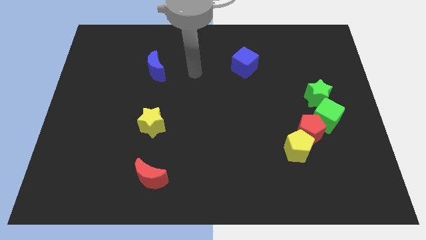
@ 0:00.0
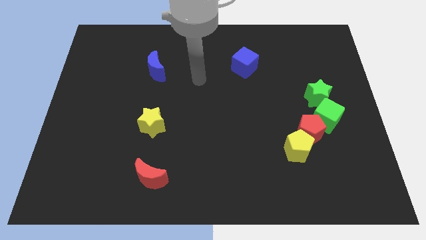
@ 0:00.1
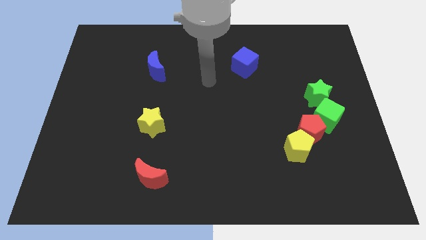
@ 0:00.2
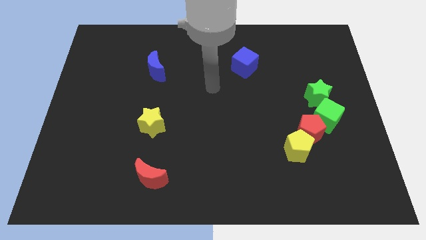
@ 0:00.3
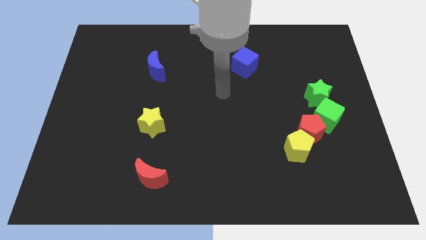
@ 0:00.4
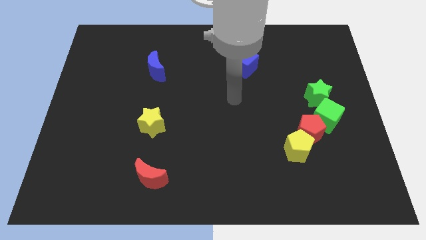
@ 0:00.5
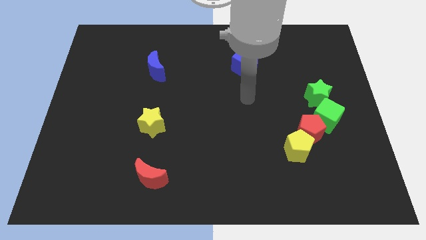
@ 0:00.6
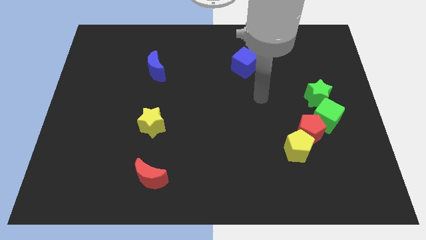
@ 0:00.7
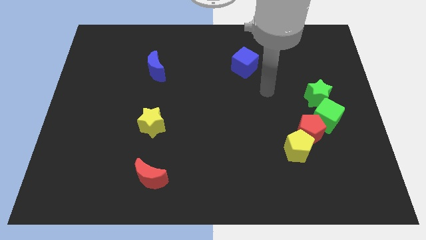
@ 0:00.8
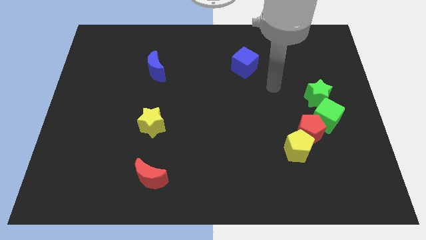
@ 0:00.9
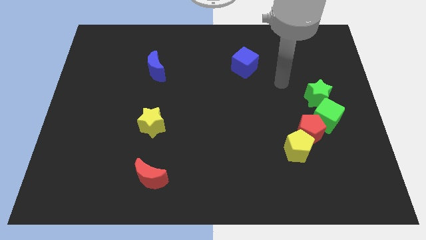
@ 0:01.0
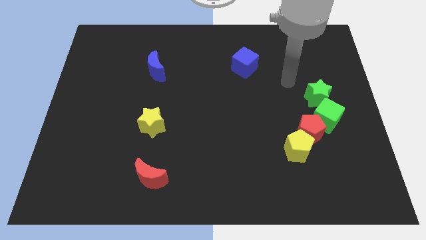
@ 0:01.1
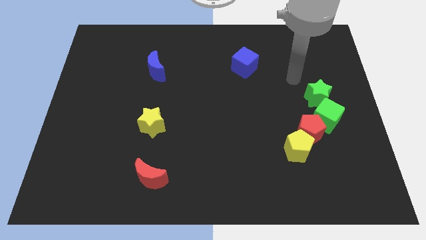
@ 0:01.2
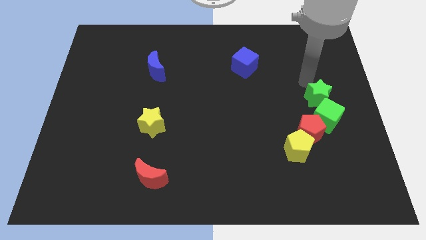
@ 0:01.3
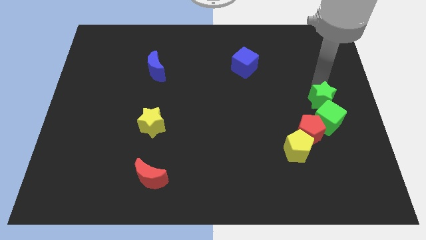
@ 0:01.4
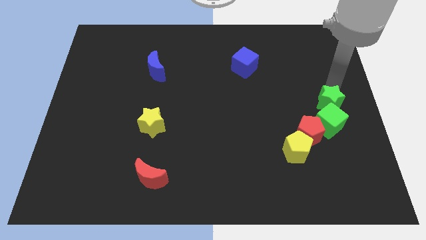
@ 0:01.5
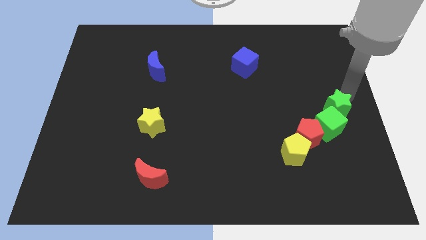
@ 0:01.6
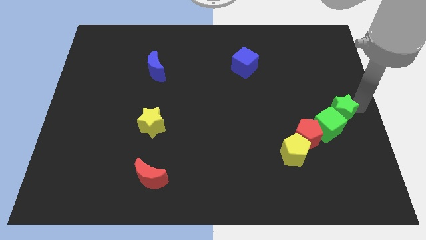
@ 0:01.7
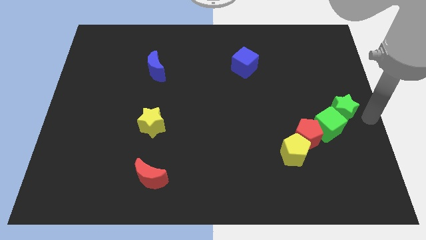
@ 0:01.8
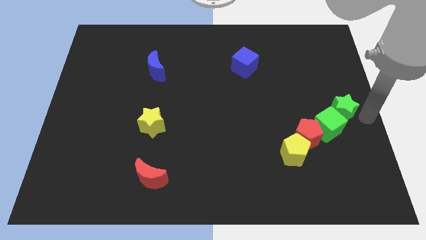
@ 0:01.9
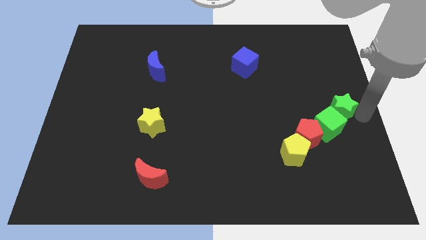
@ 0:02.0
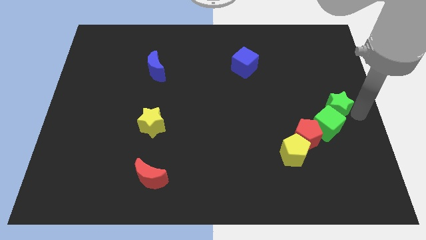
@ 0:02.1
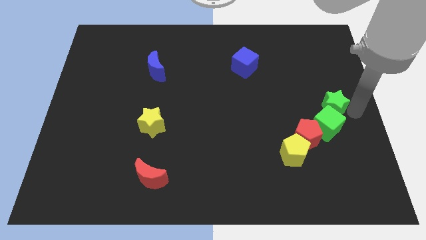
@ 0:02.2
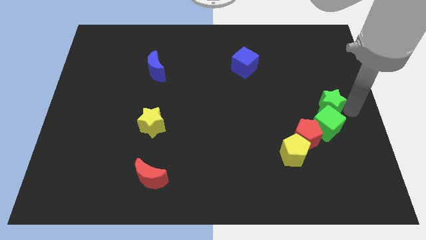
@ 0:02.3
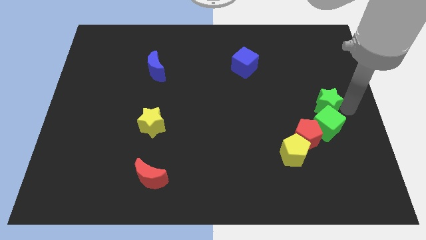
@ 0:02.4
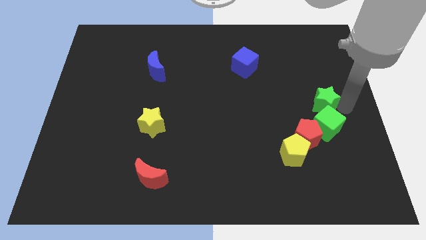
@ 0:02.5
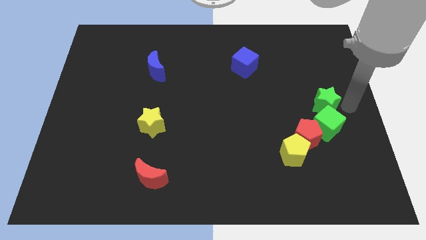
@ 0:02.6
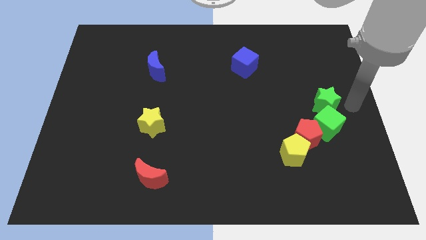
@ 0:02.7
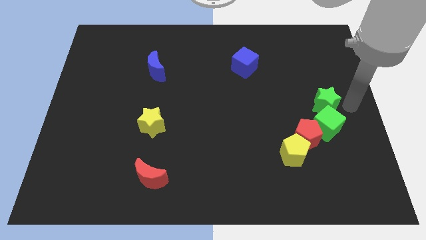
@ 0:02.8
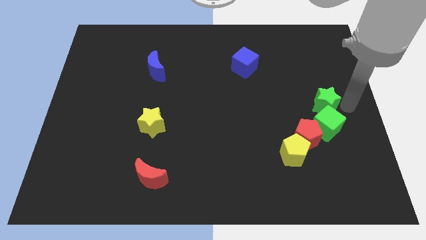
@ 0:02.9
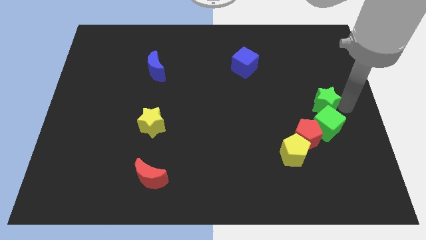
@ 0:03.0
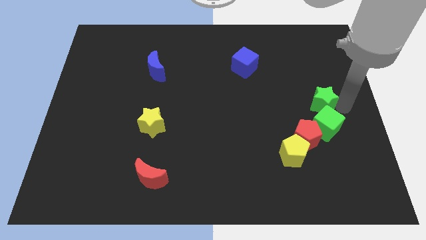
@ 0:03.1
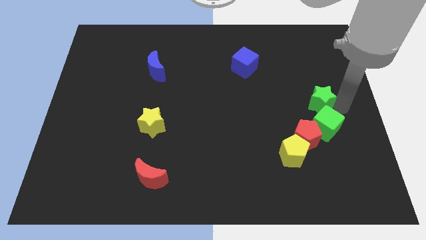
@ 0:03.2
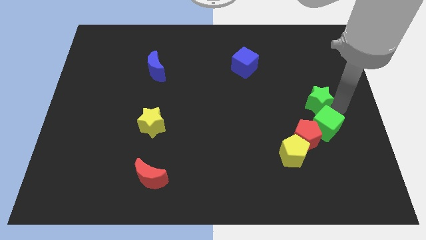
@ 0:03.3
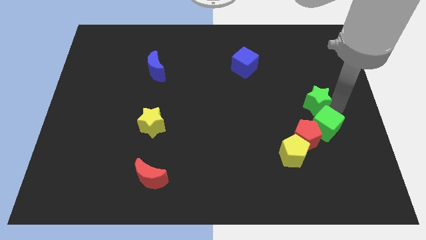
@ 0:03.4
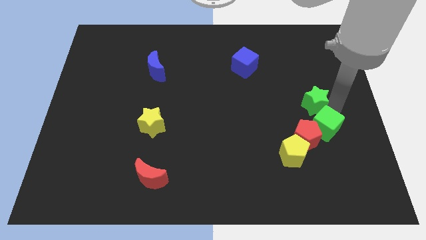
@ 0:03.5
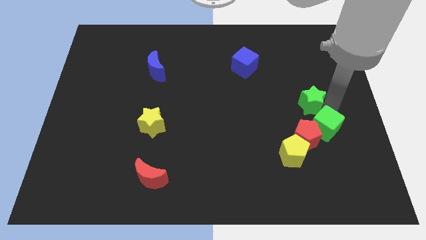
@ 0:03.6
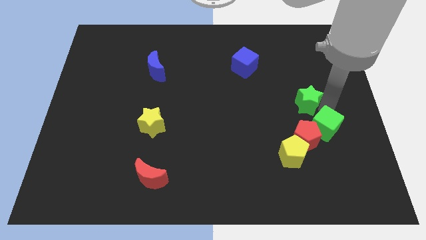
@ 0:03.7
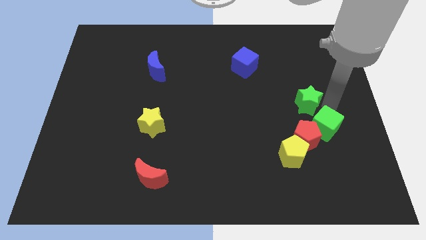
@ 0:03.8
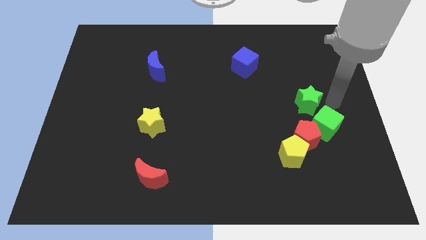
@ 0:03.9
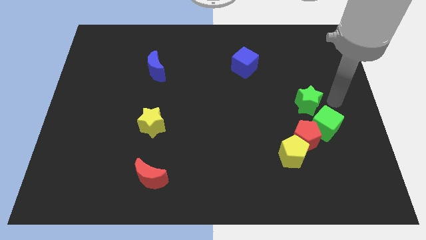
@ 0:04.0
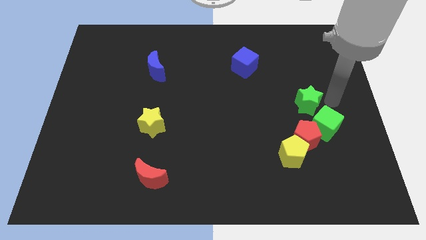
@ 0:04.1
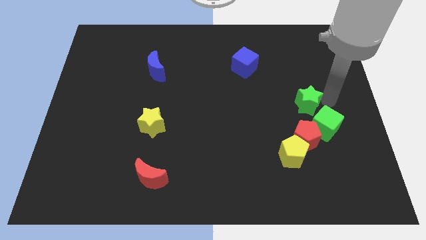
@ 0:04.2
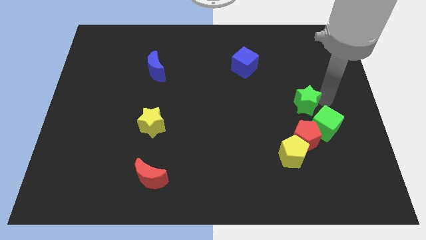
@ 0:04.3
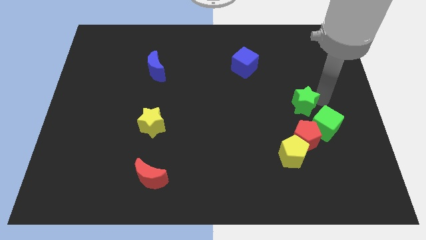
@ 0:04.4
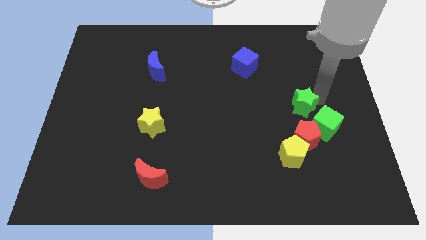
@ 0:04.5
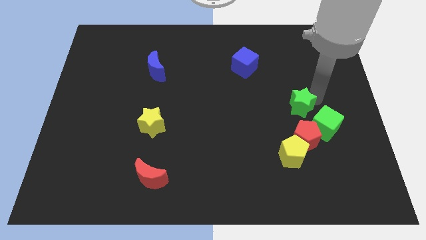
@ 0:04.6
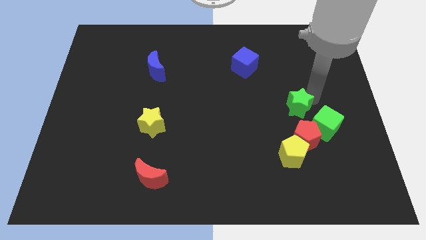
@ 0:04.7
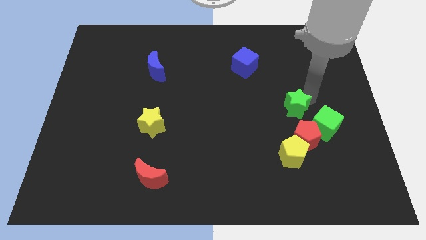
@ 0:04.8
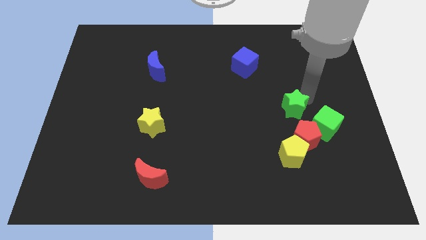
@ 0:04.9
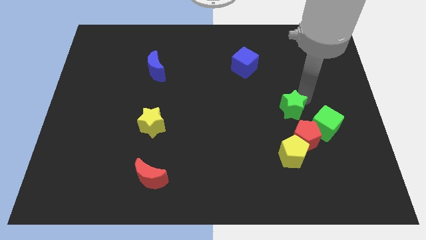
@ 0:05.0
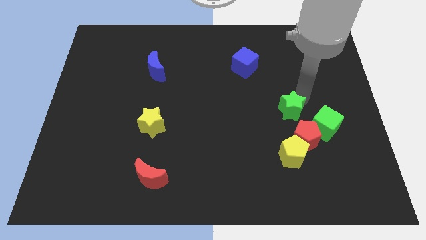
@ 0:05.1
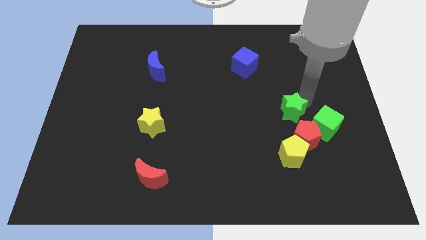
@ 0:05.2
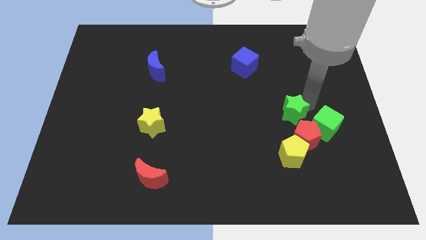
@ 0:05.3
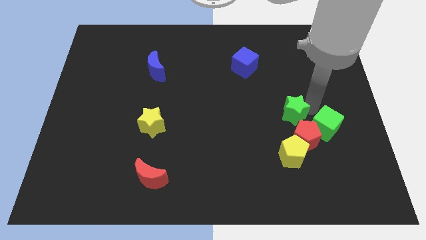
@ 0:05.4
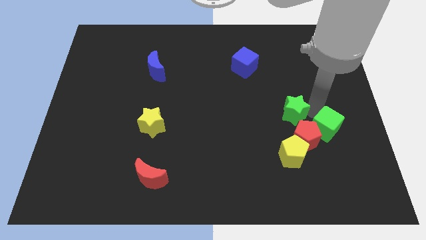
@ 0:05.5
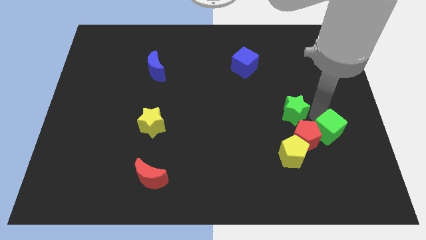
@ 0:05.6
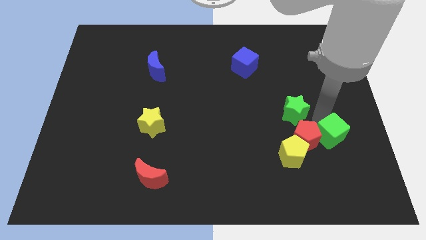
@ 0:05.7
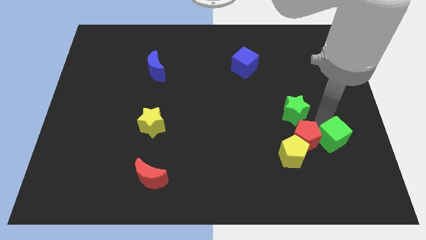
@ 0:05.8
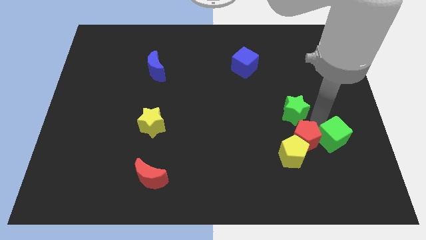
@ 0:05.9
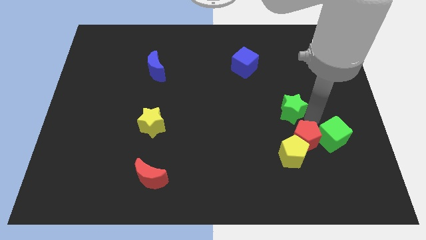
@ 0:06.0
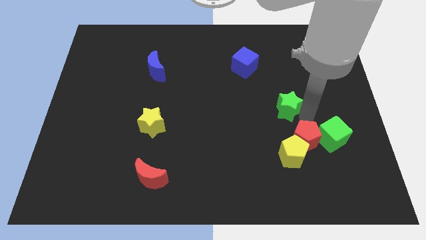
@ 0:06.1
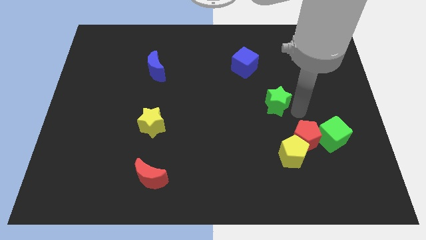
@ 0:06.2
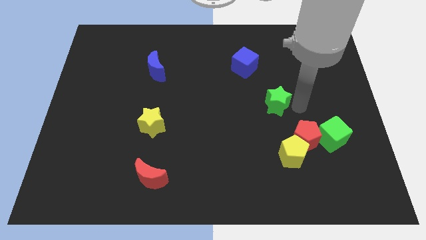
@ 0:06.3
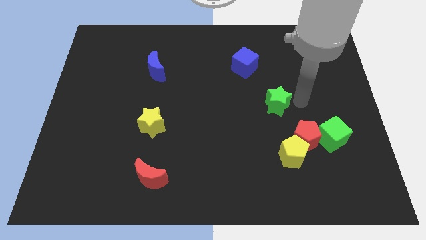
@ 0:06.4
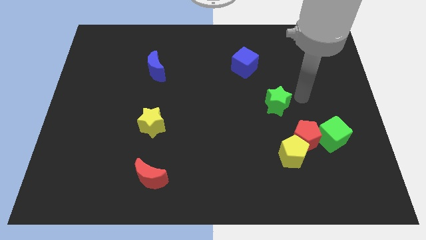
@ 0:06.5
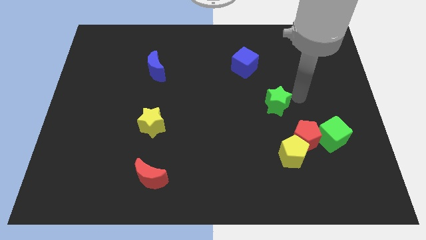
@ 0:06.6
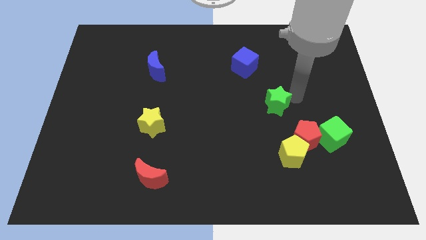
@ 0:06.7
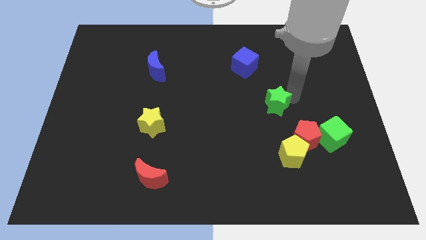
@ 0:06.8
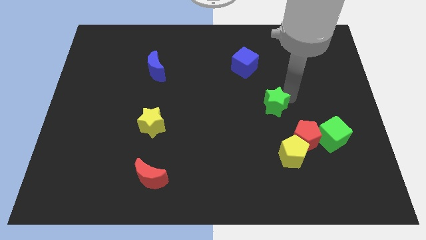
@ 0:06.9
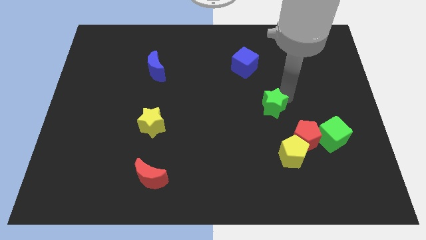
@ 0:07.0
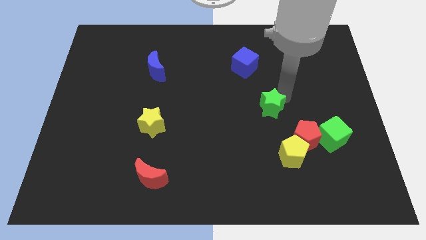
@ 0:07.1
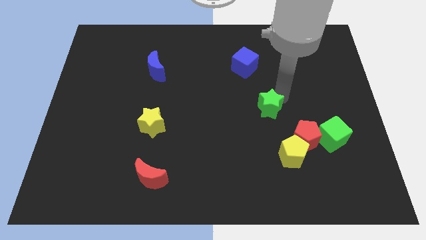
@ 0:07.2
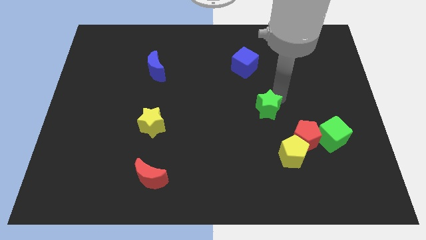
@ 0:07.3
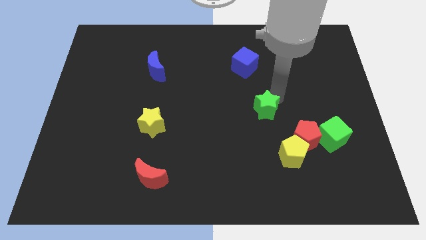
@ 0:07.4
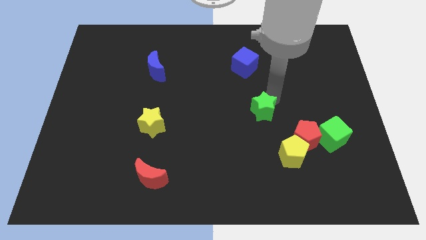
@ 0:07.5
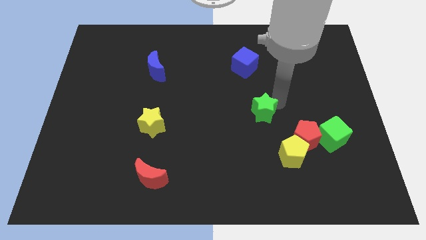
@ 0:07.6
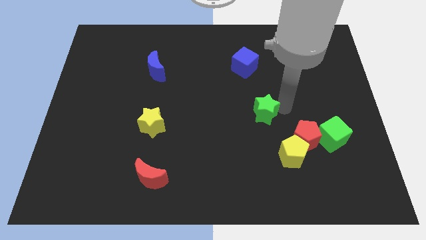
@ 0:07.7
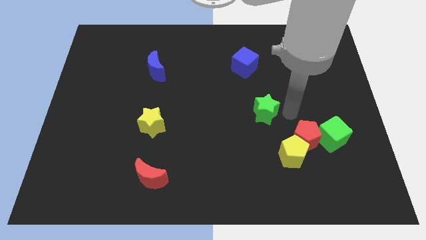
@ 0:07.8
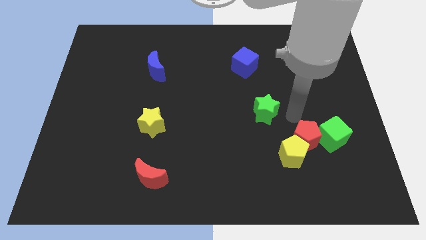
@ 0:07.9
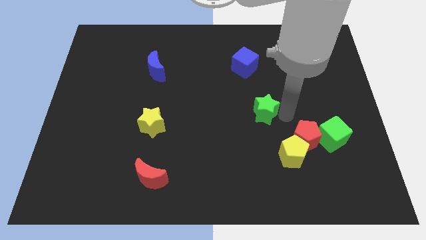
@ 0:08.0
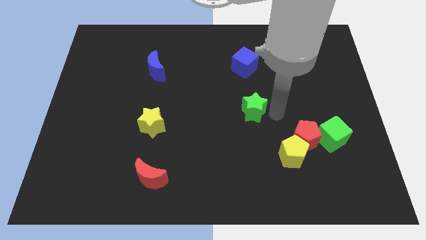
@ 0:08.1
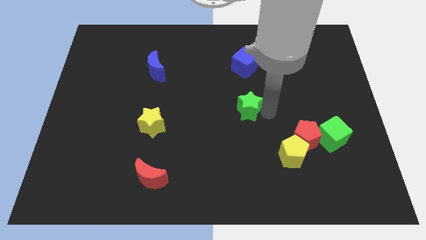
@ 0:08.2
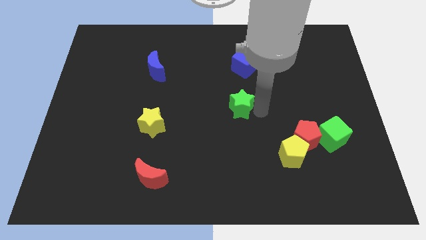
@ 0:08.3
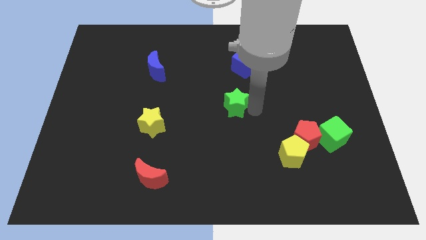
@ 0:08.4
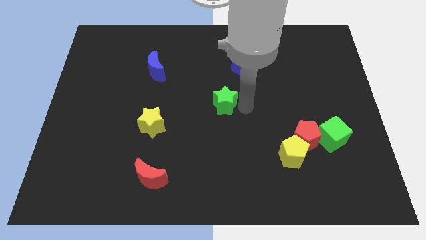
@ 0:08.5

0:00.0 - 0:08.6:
slide the green star left
